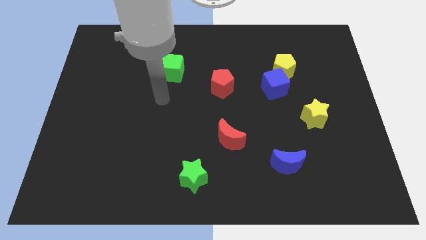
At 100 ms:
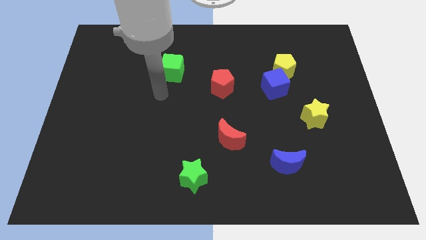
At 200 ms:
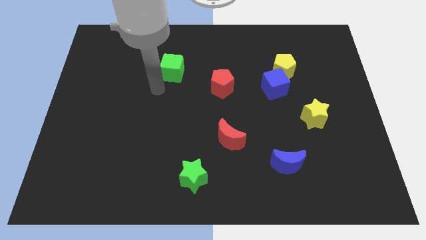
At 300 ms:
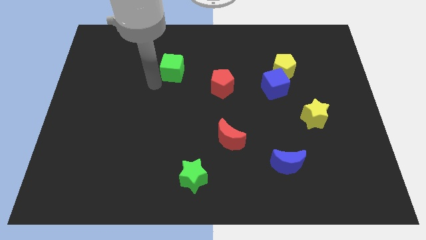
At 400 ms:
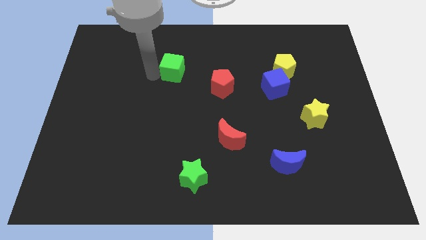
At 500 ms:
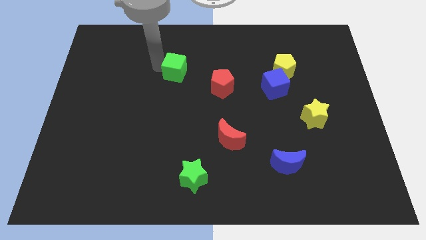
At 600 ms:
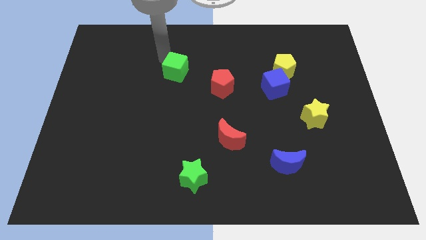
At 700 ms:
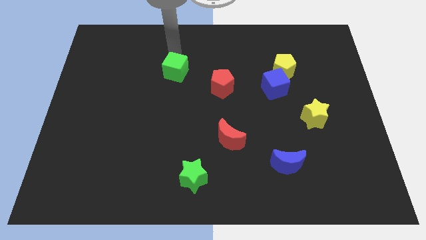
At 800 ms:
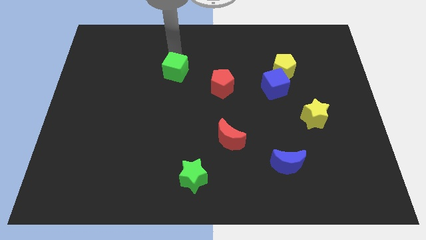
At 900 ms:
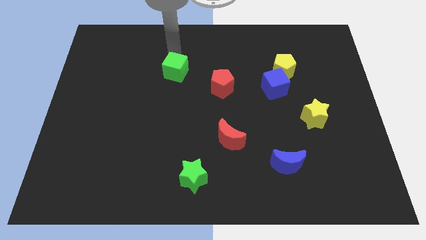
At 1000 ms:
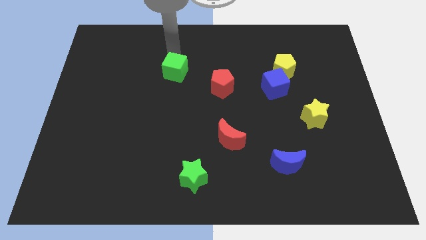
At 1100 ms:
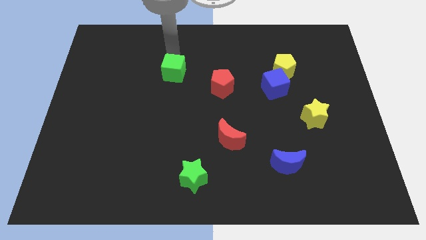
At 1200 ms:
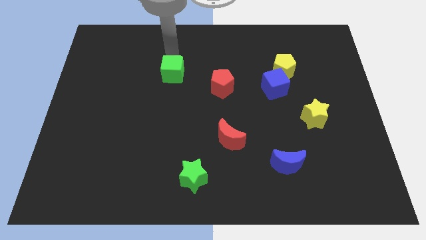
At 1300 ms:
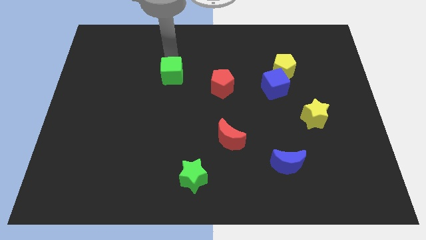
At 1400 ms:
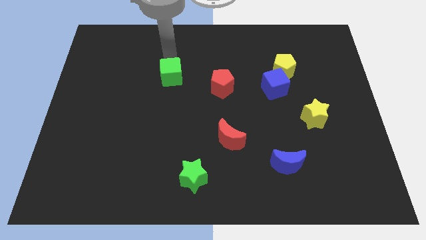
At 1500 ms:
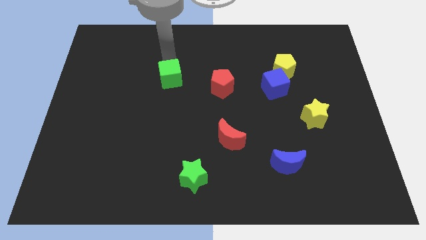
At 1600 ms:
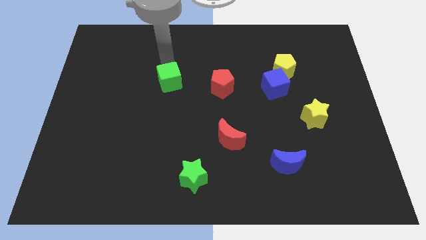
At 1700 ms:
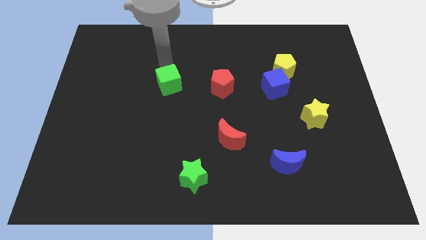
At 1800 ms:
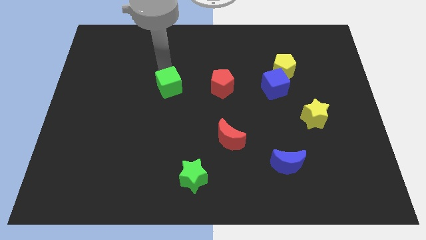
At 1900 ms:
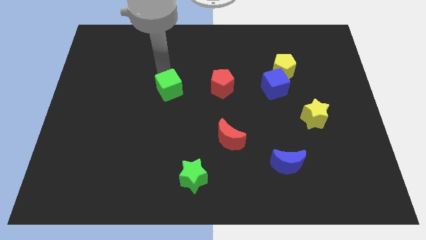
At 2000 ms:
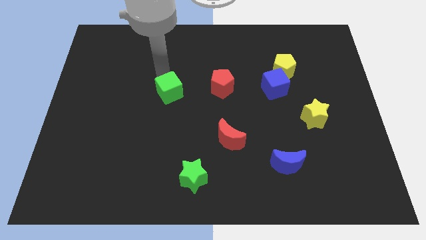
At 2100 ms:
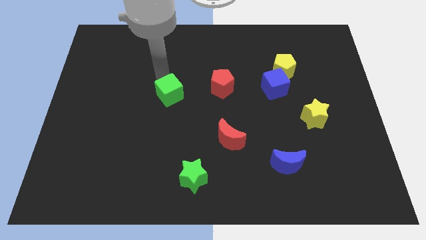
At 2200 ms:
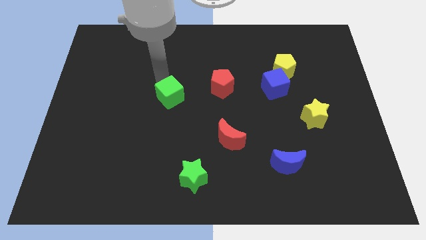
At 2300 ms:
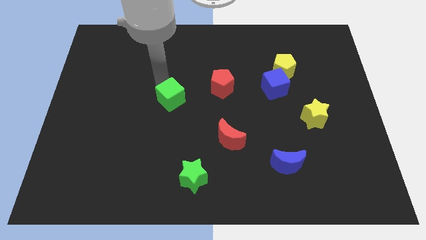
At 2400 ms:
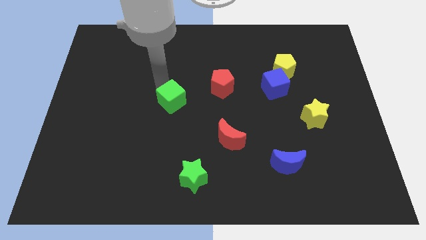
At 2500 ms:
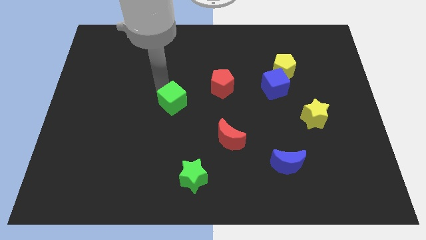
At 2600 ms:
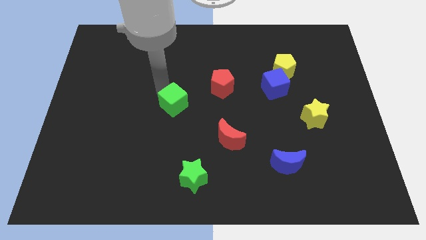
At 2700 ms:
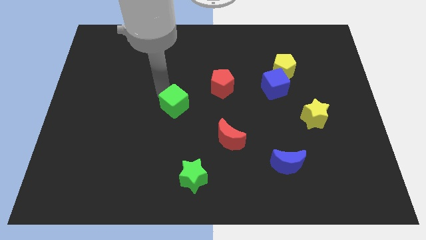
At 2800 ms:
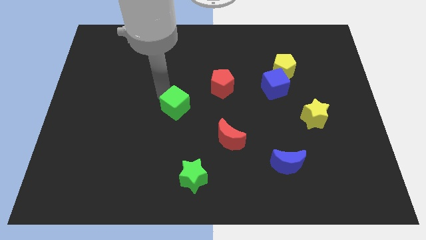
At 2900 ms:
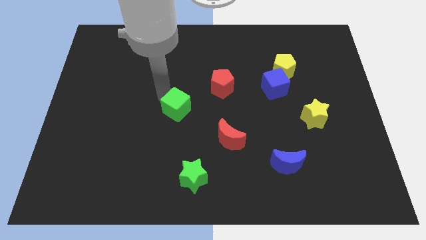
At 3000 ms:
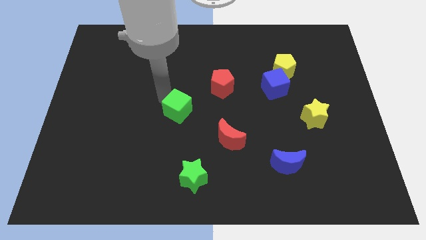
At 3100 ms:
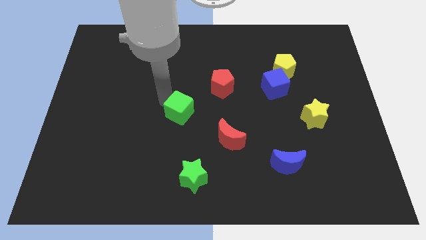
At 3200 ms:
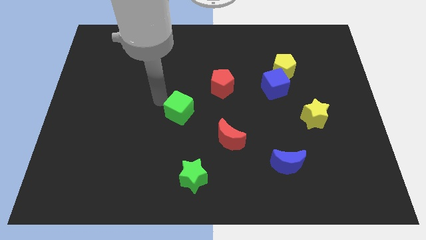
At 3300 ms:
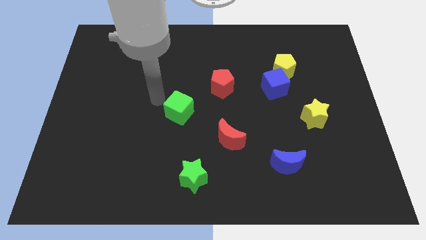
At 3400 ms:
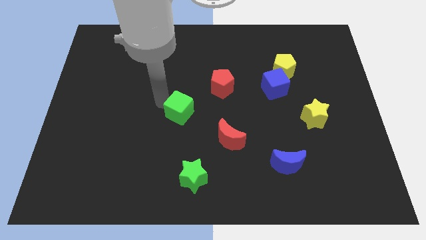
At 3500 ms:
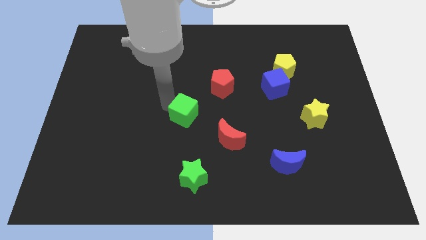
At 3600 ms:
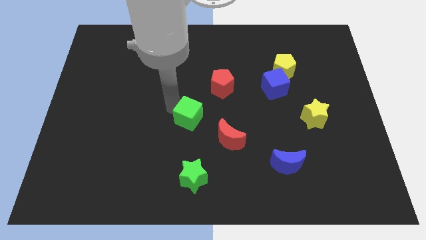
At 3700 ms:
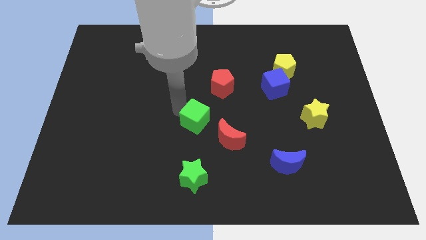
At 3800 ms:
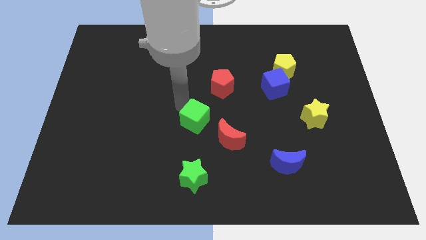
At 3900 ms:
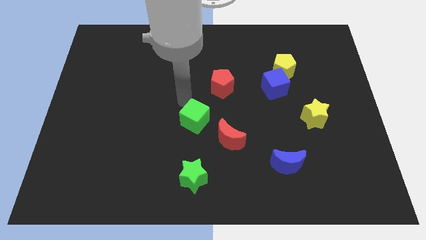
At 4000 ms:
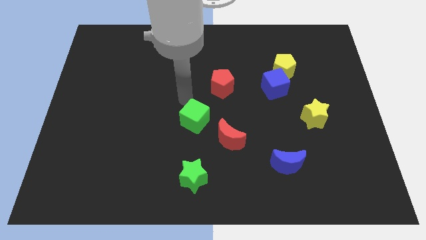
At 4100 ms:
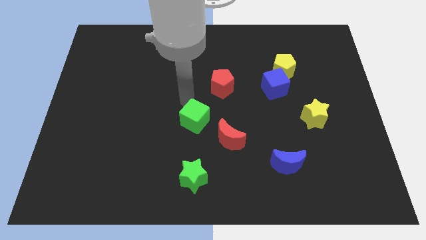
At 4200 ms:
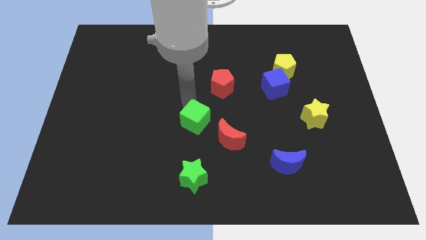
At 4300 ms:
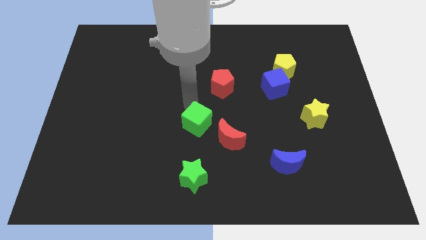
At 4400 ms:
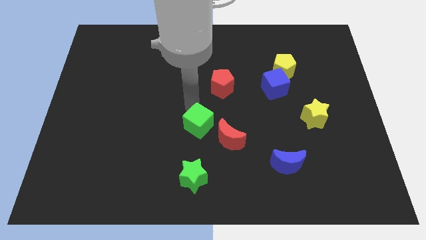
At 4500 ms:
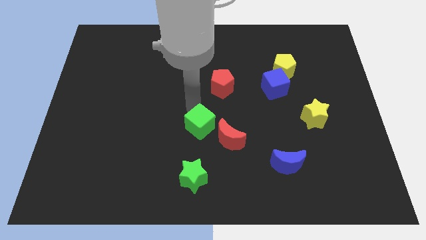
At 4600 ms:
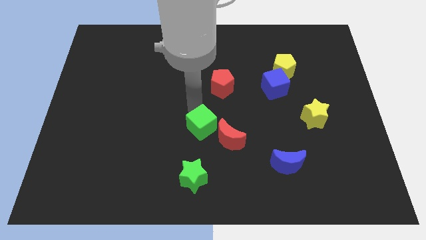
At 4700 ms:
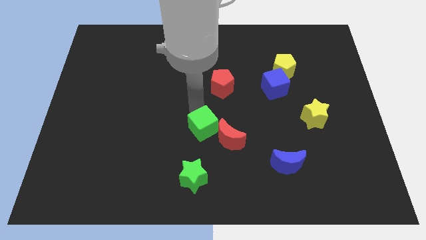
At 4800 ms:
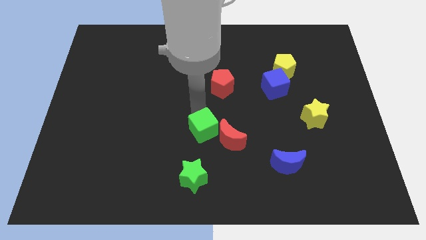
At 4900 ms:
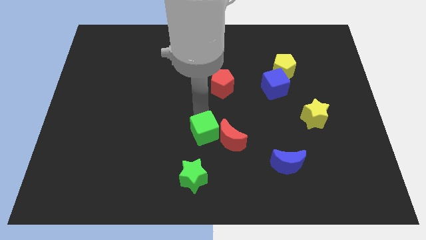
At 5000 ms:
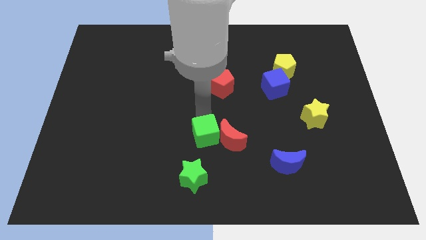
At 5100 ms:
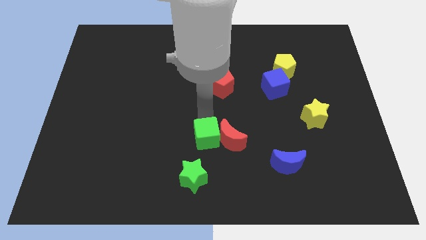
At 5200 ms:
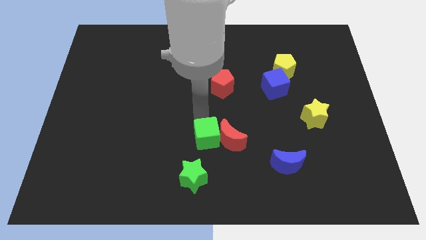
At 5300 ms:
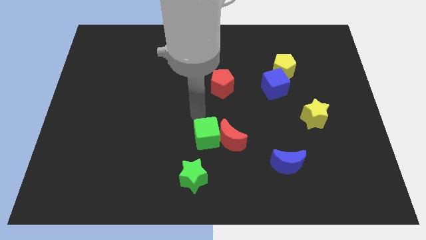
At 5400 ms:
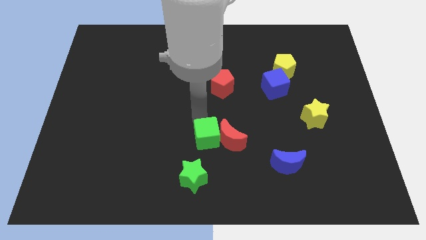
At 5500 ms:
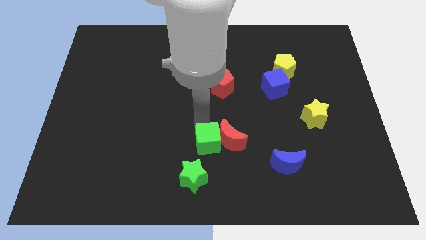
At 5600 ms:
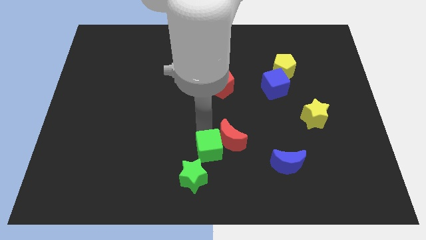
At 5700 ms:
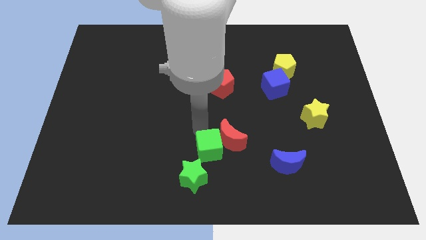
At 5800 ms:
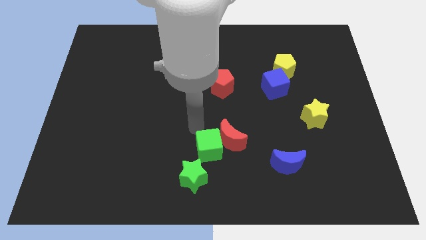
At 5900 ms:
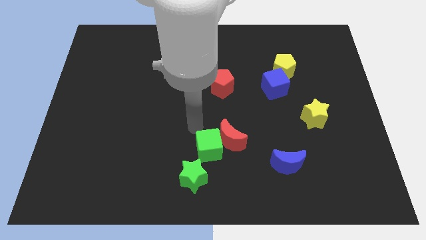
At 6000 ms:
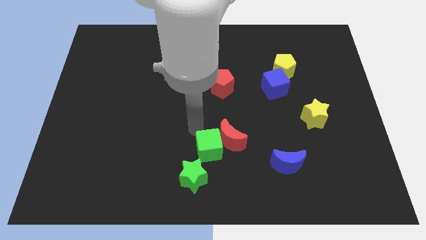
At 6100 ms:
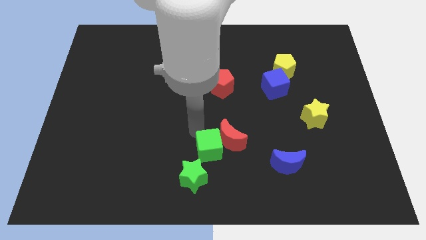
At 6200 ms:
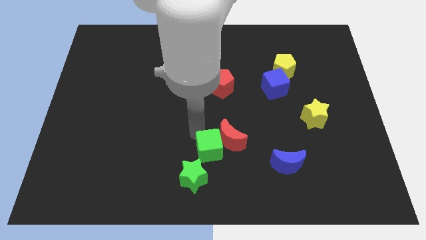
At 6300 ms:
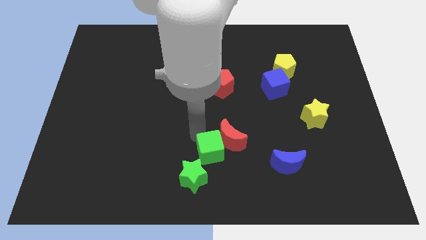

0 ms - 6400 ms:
push the green cube below the red moon

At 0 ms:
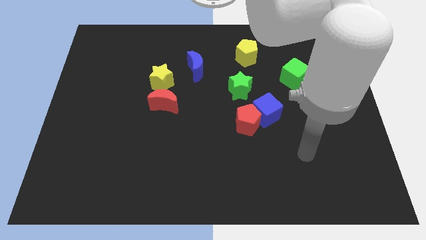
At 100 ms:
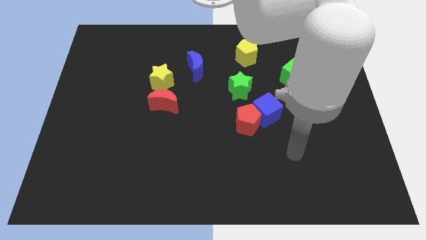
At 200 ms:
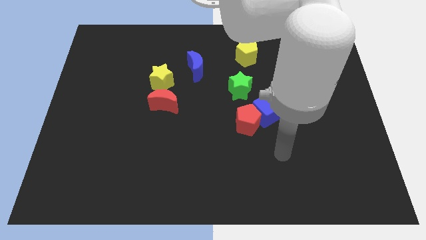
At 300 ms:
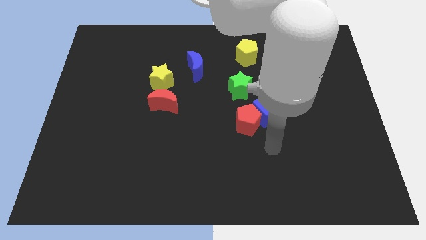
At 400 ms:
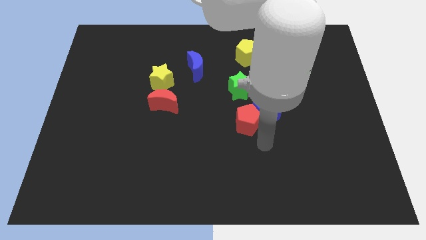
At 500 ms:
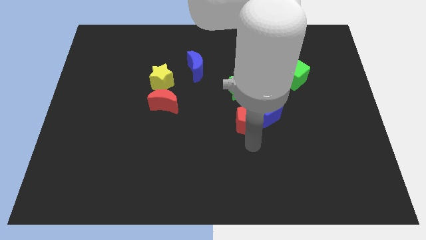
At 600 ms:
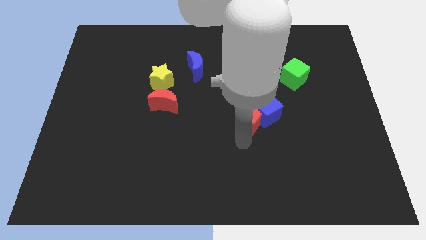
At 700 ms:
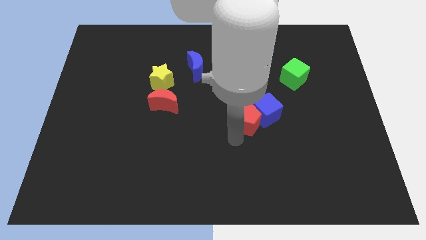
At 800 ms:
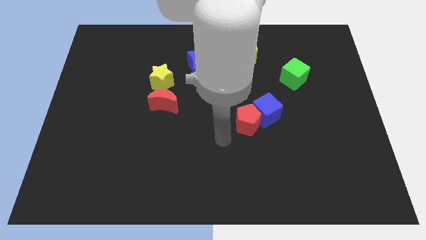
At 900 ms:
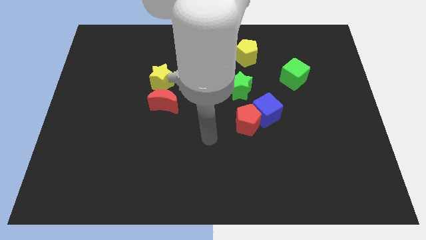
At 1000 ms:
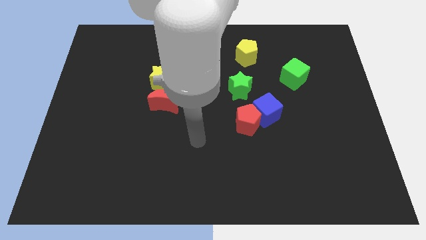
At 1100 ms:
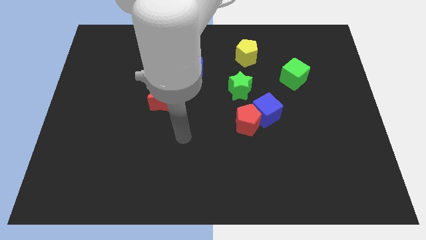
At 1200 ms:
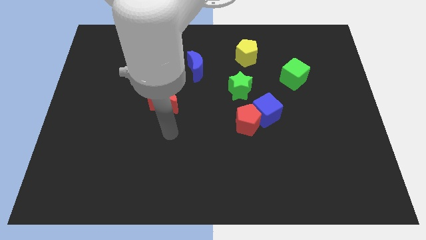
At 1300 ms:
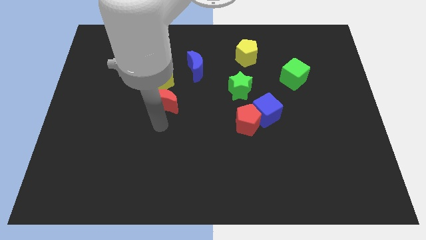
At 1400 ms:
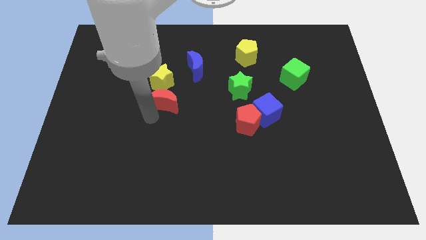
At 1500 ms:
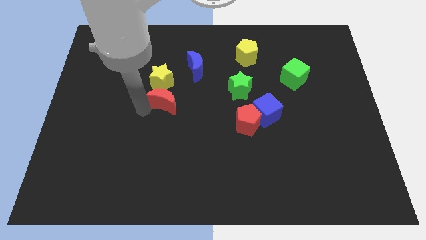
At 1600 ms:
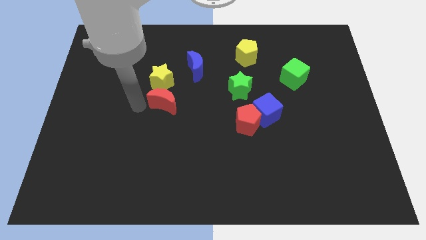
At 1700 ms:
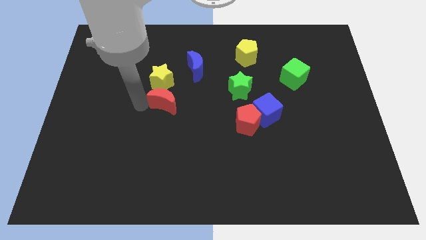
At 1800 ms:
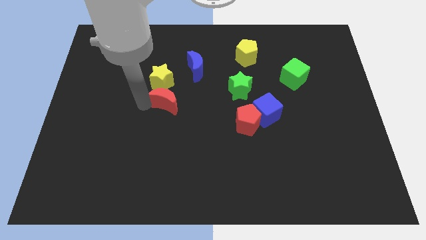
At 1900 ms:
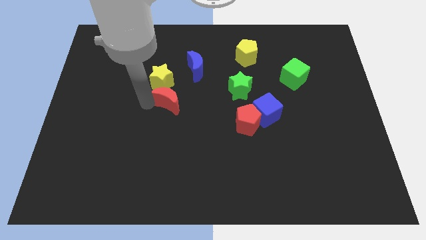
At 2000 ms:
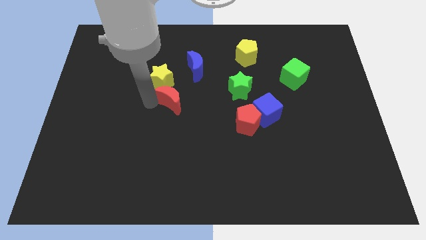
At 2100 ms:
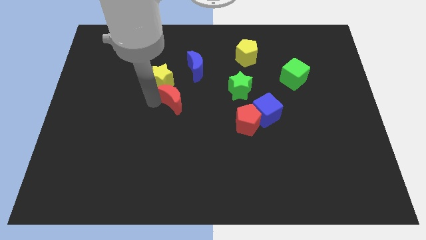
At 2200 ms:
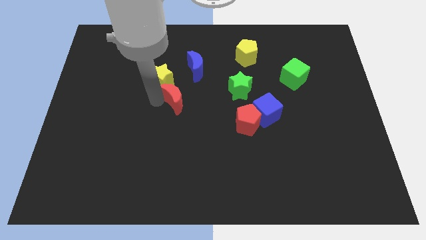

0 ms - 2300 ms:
put the red moon to the bottom of the blue moon
